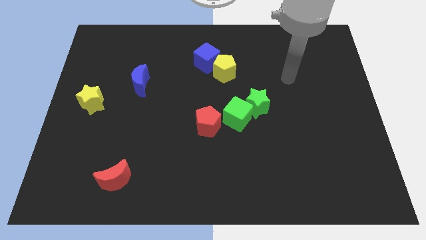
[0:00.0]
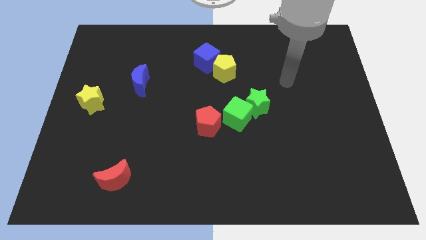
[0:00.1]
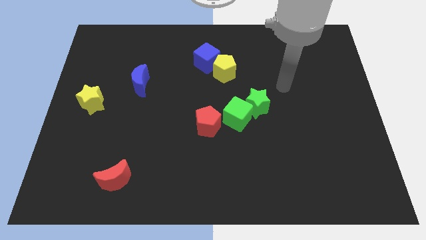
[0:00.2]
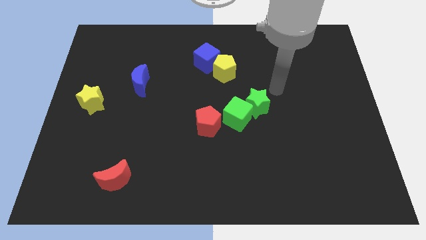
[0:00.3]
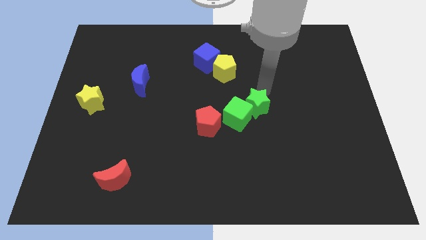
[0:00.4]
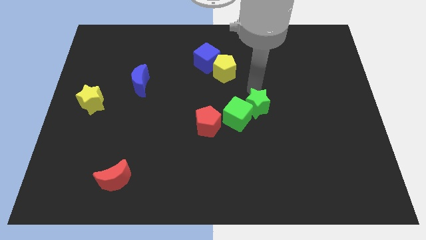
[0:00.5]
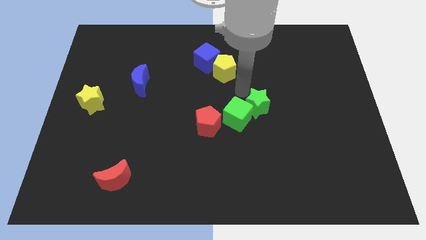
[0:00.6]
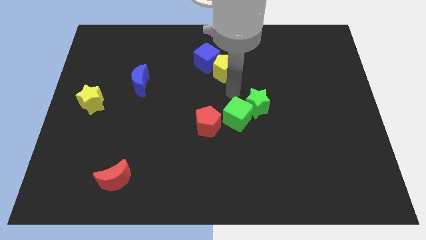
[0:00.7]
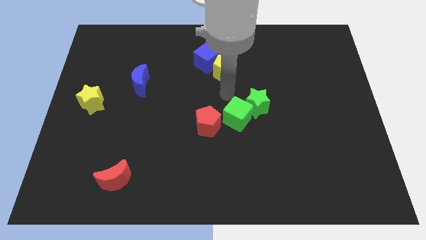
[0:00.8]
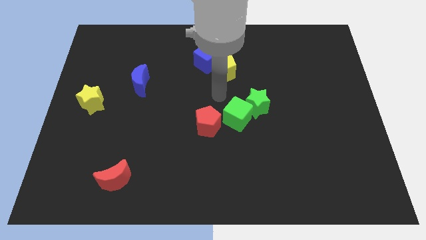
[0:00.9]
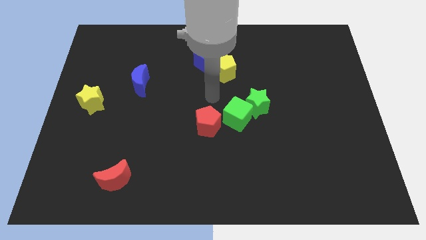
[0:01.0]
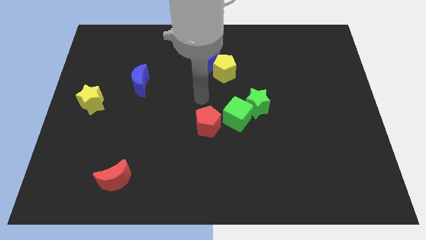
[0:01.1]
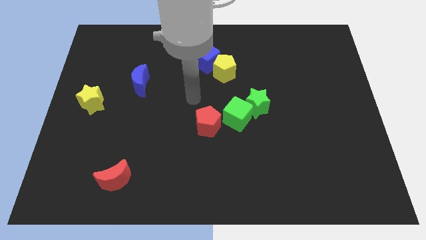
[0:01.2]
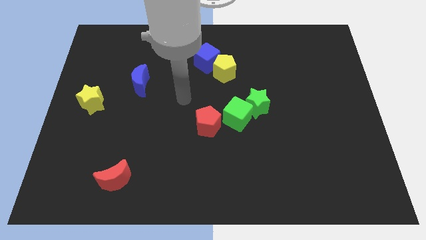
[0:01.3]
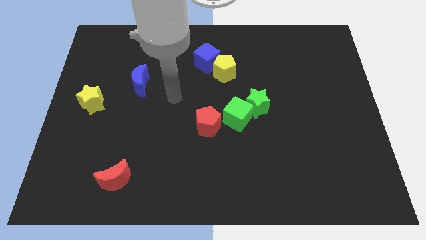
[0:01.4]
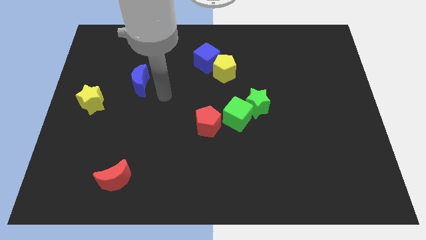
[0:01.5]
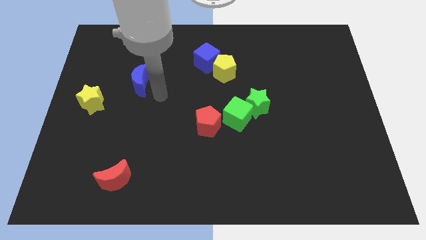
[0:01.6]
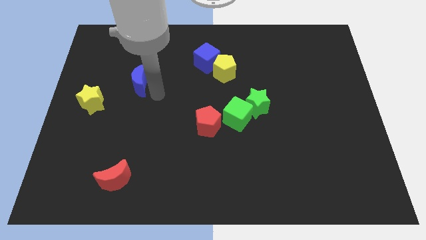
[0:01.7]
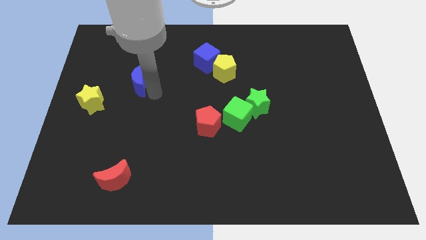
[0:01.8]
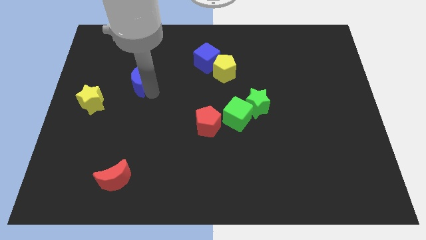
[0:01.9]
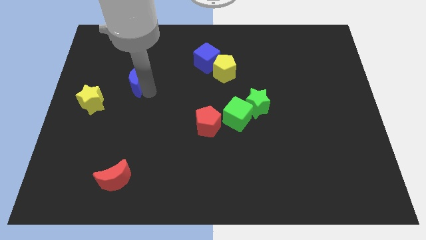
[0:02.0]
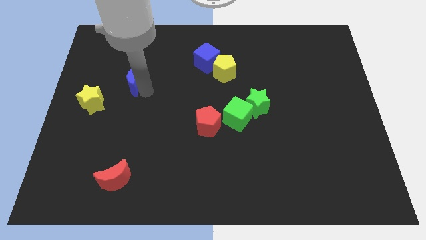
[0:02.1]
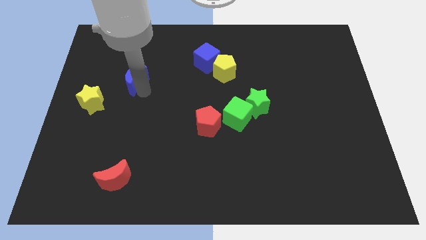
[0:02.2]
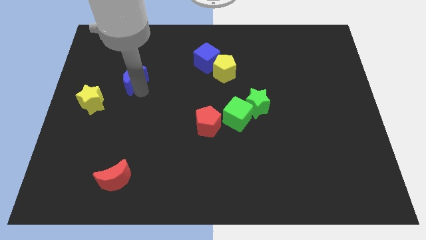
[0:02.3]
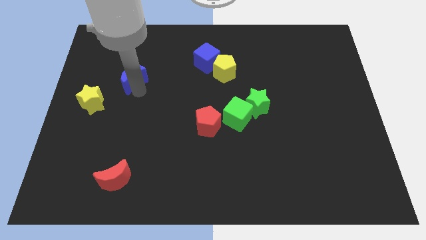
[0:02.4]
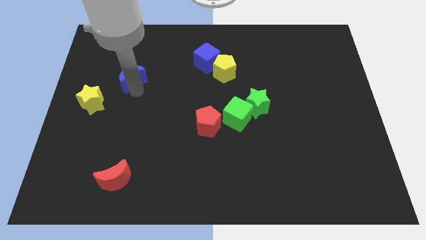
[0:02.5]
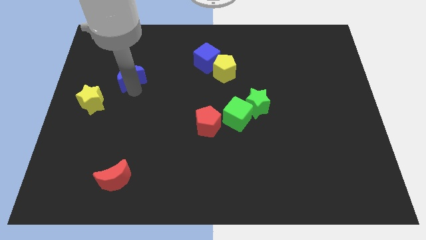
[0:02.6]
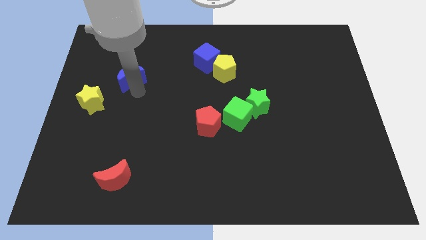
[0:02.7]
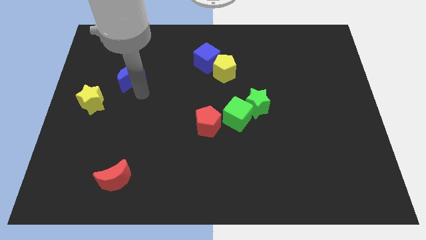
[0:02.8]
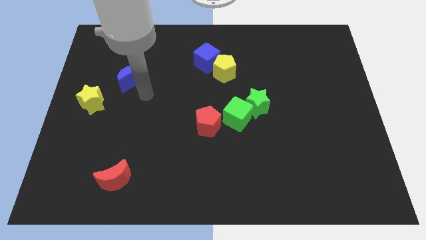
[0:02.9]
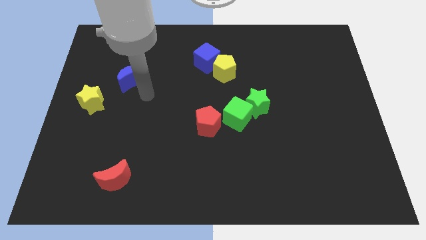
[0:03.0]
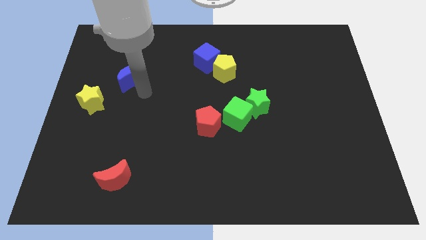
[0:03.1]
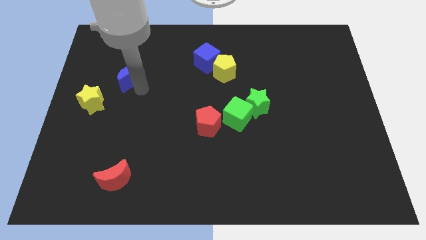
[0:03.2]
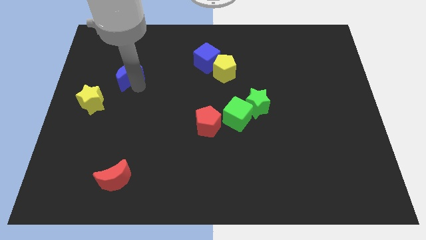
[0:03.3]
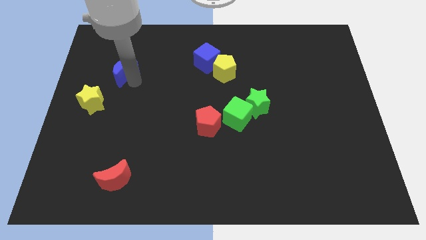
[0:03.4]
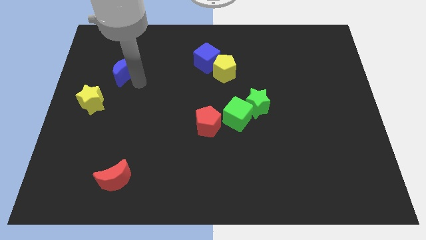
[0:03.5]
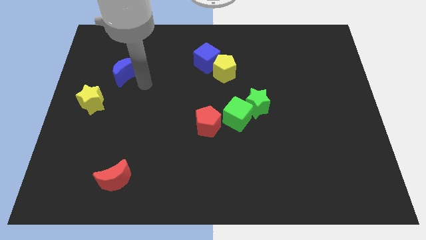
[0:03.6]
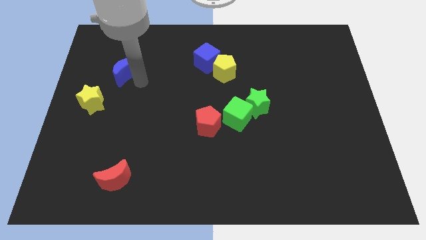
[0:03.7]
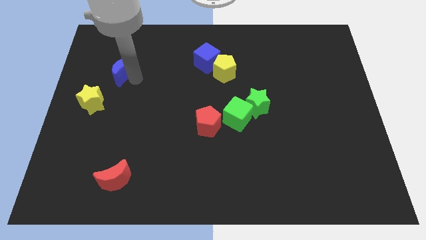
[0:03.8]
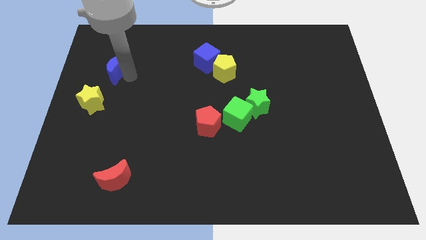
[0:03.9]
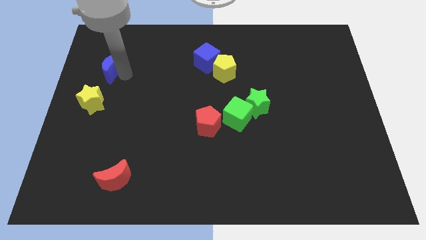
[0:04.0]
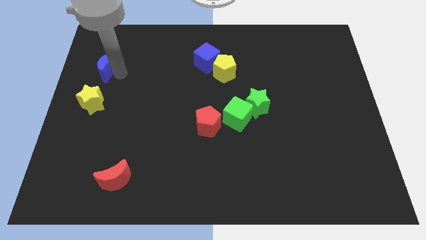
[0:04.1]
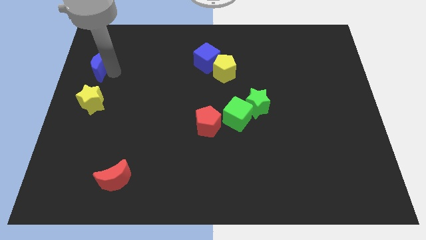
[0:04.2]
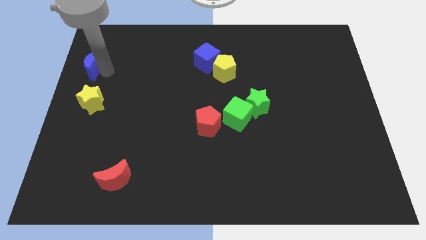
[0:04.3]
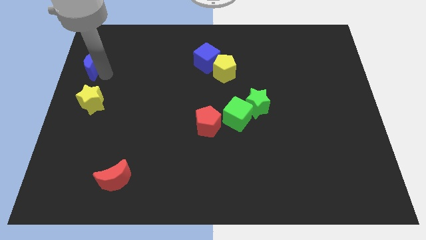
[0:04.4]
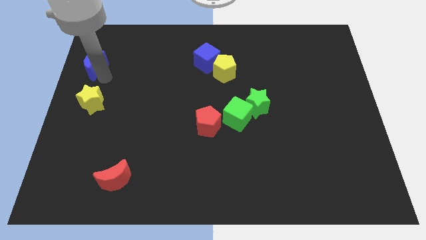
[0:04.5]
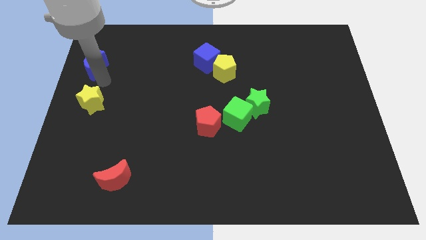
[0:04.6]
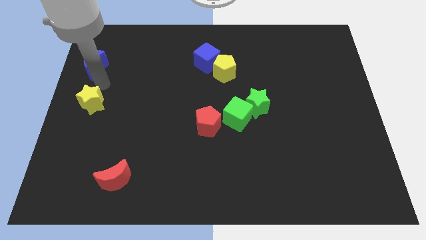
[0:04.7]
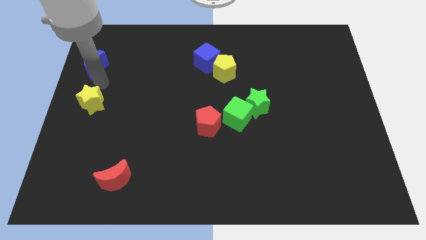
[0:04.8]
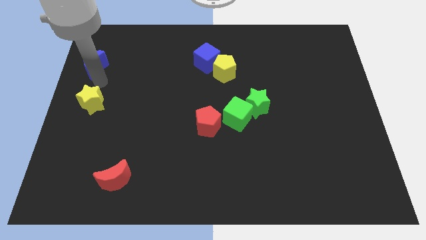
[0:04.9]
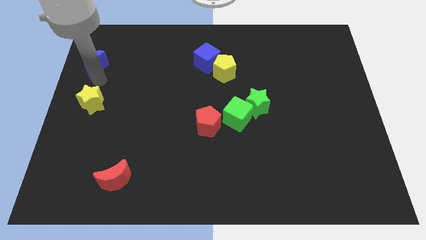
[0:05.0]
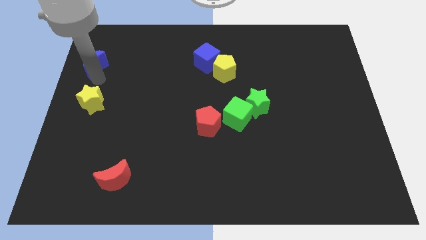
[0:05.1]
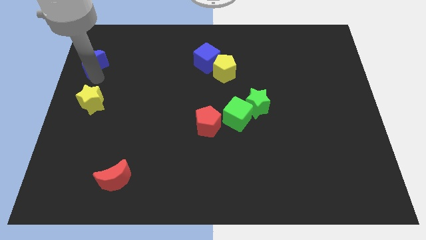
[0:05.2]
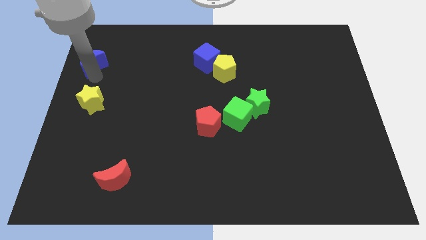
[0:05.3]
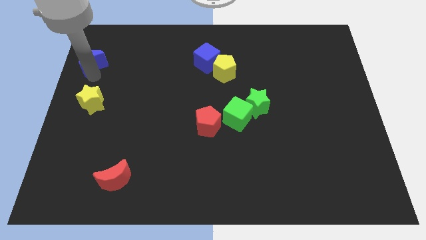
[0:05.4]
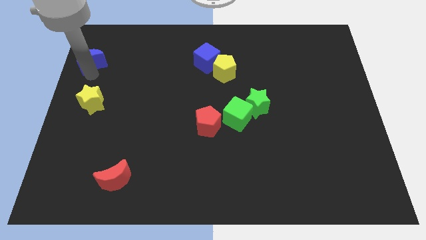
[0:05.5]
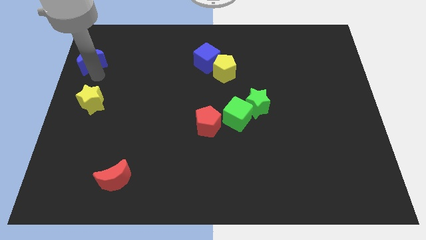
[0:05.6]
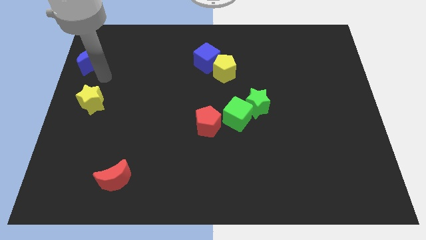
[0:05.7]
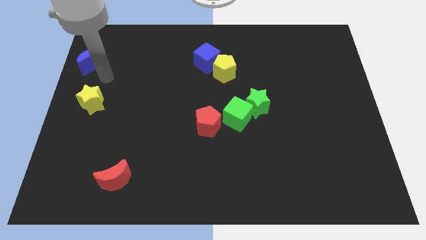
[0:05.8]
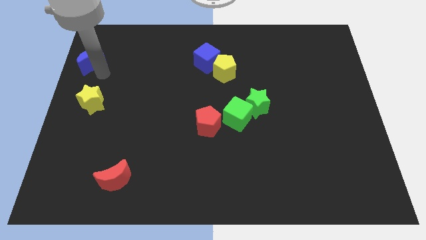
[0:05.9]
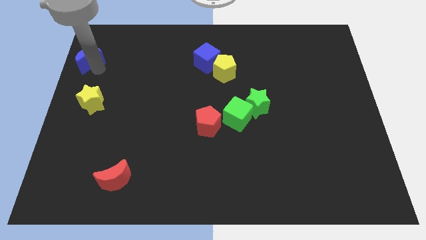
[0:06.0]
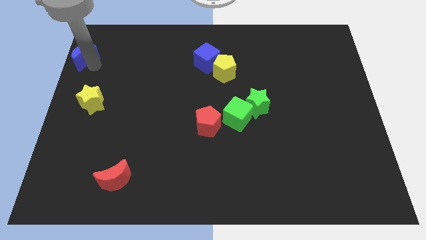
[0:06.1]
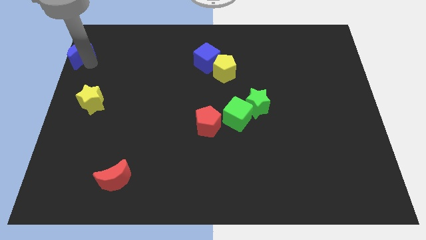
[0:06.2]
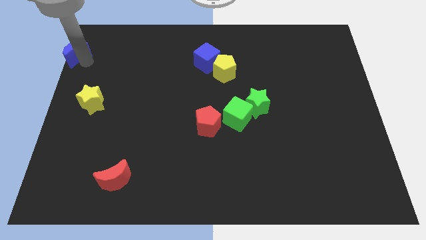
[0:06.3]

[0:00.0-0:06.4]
put the blue moon to the top left
